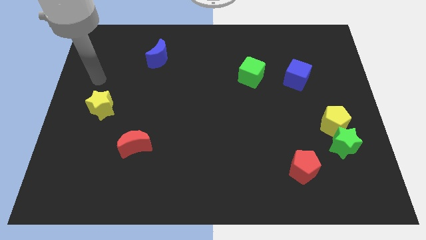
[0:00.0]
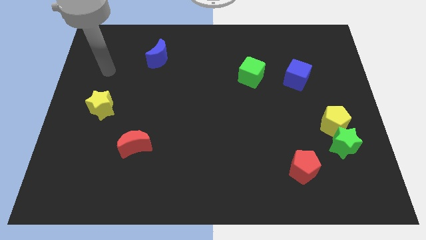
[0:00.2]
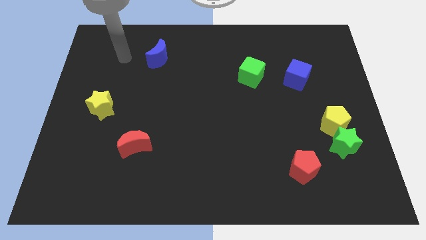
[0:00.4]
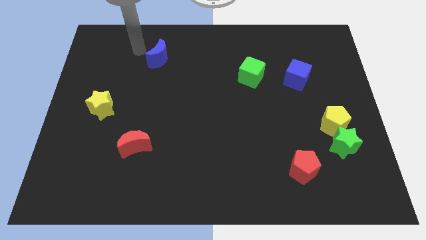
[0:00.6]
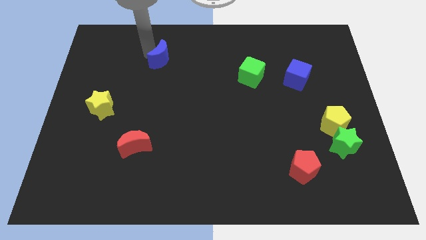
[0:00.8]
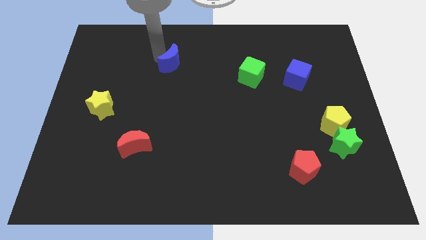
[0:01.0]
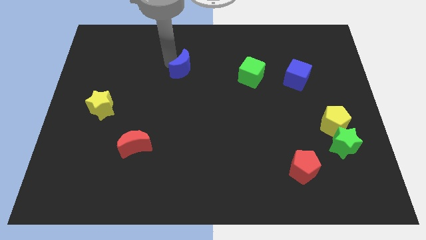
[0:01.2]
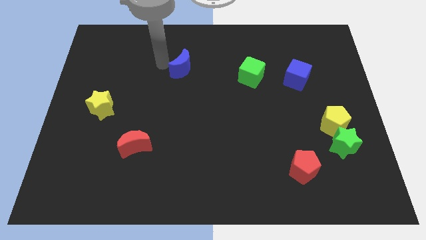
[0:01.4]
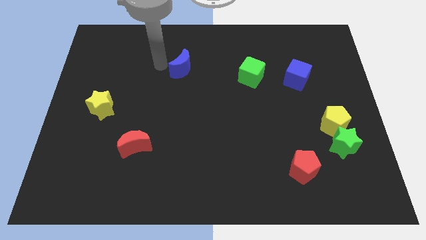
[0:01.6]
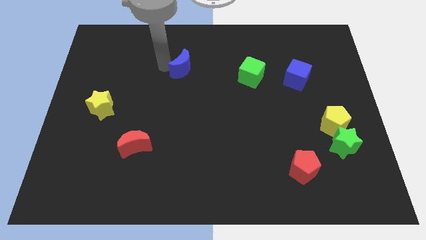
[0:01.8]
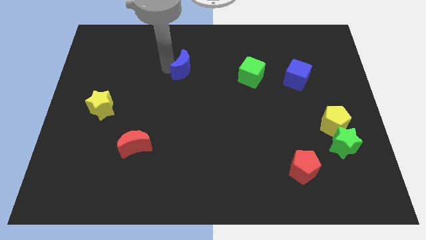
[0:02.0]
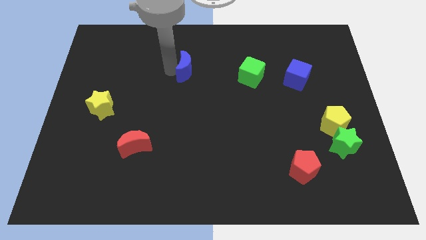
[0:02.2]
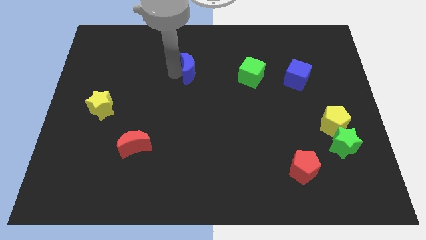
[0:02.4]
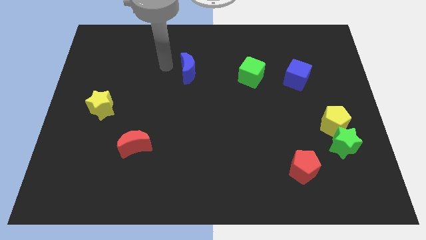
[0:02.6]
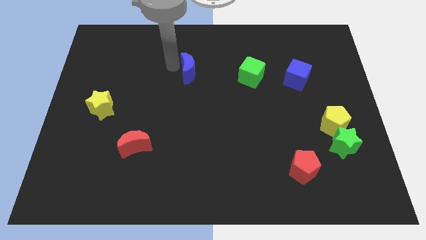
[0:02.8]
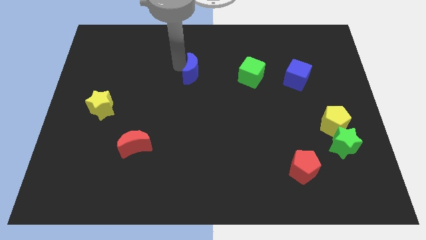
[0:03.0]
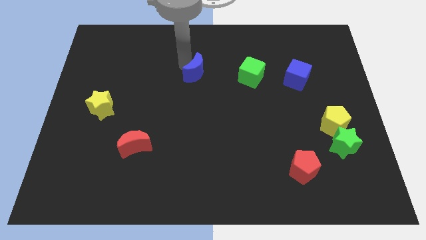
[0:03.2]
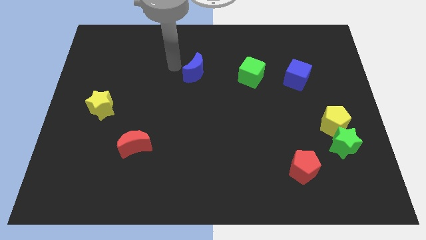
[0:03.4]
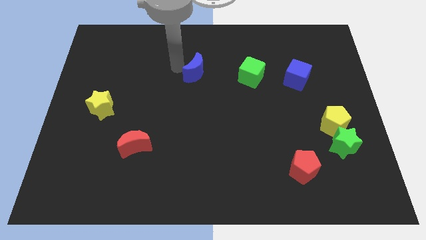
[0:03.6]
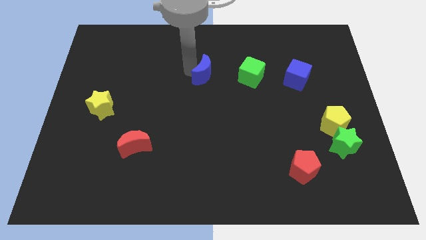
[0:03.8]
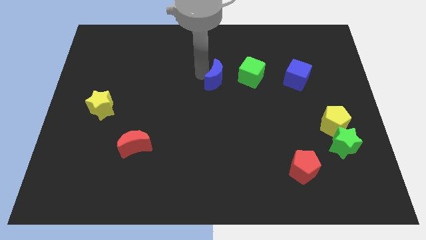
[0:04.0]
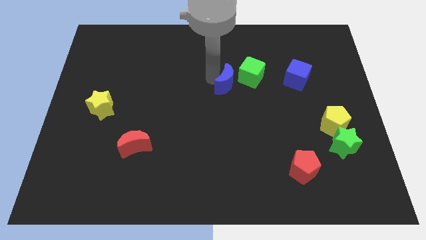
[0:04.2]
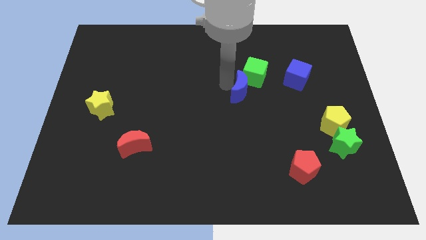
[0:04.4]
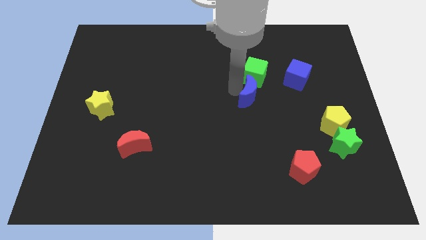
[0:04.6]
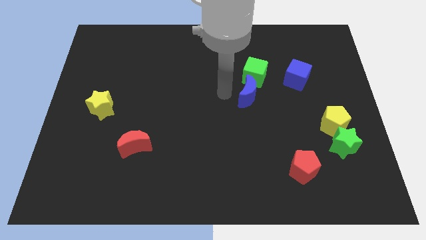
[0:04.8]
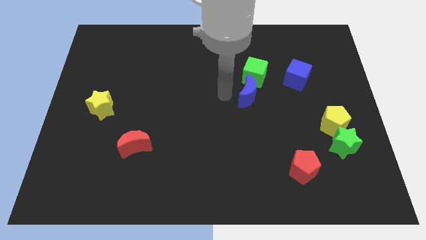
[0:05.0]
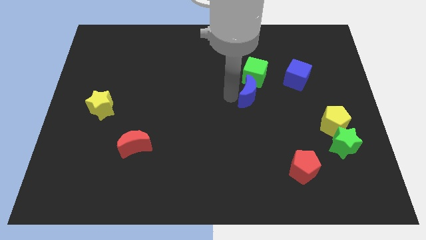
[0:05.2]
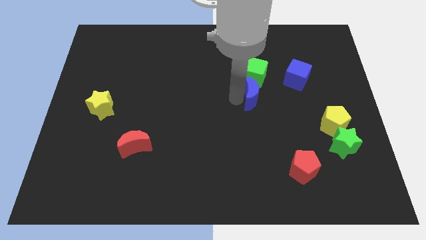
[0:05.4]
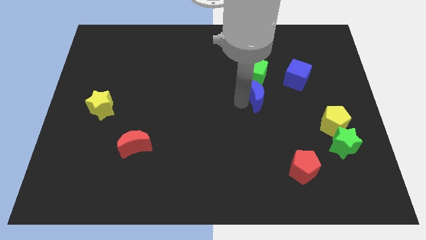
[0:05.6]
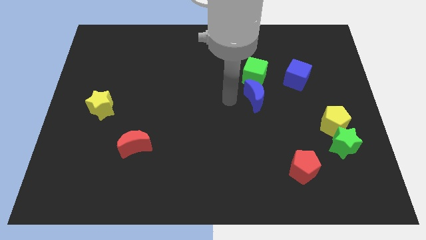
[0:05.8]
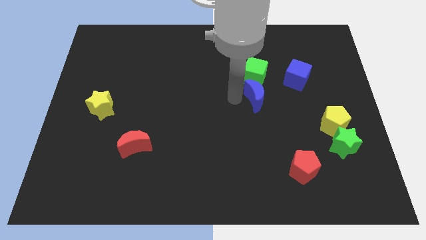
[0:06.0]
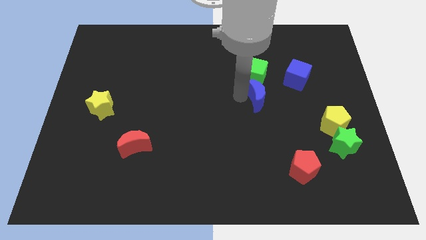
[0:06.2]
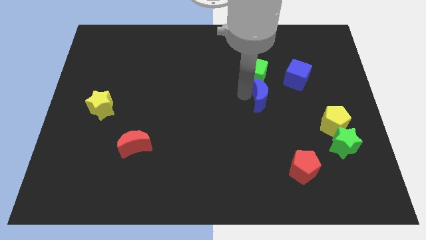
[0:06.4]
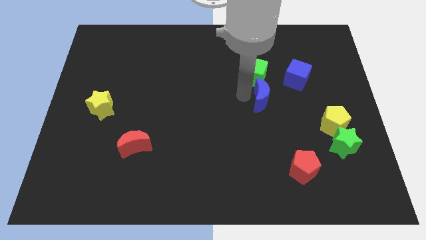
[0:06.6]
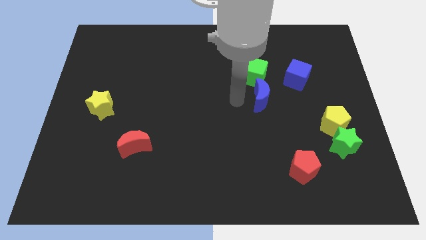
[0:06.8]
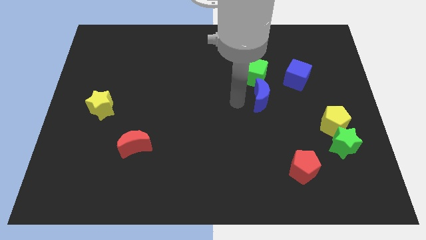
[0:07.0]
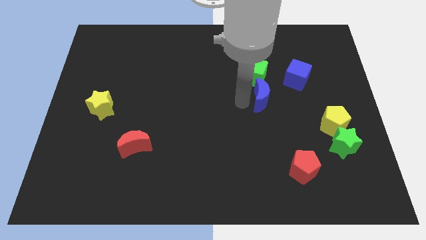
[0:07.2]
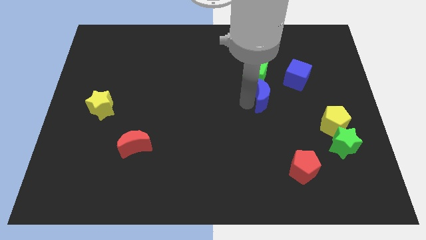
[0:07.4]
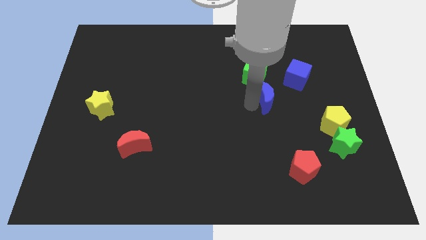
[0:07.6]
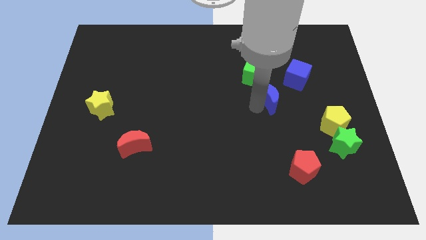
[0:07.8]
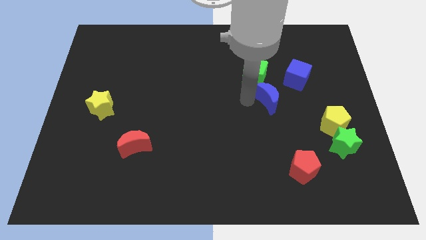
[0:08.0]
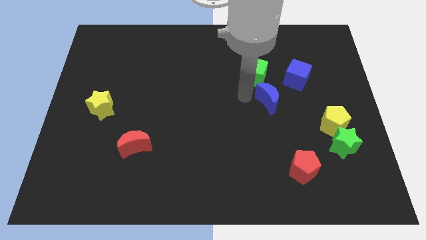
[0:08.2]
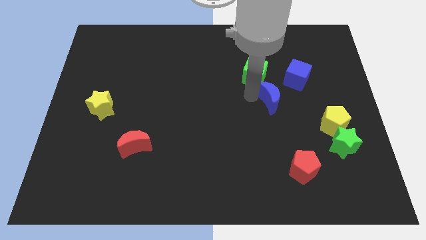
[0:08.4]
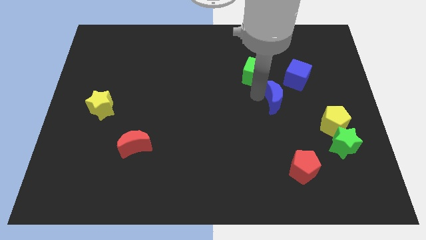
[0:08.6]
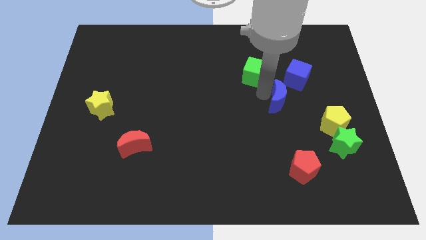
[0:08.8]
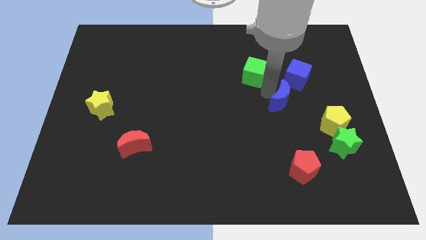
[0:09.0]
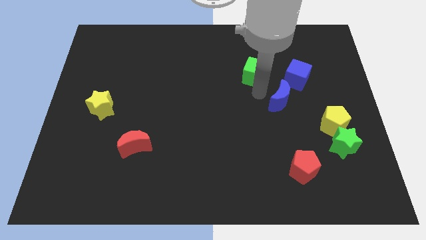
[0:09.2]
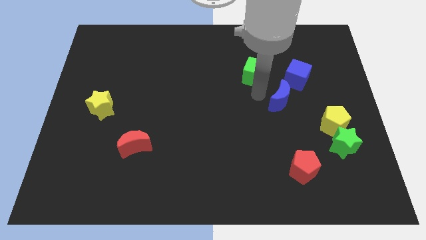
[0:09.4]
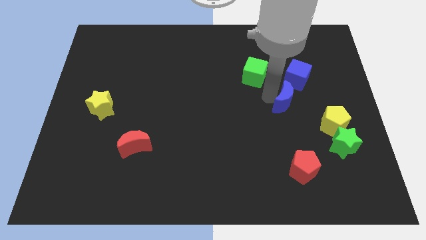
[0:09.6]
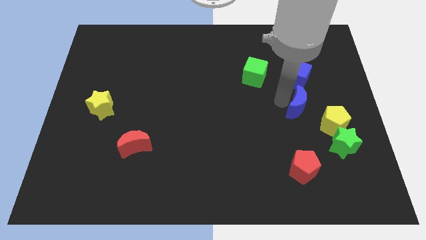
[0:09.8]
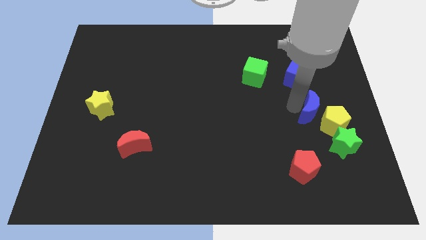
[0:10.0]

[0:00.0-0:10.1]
push the blue moon next to the yellow pentagon

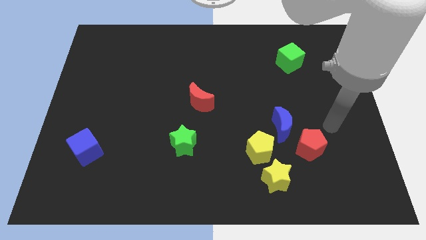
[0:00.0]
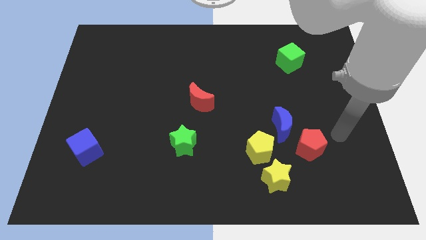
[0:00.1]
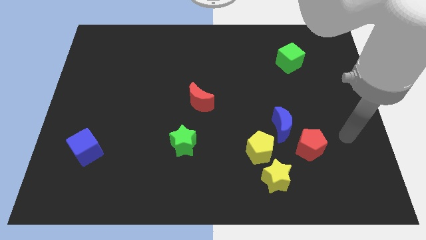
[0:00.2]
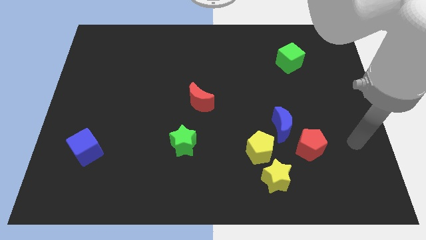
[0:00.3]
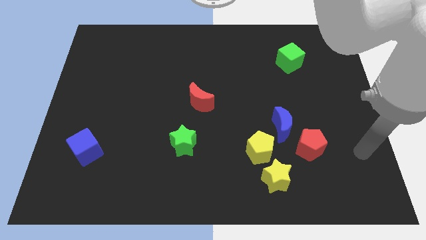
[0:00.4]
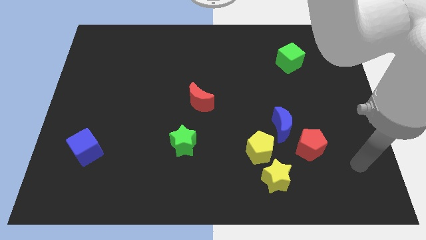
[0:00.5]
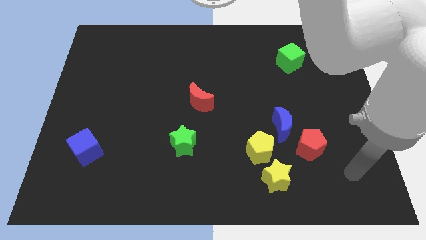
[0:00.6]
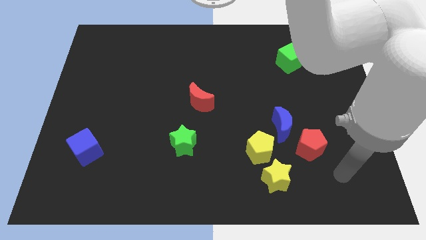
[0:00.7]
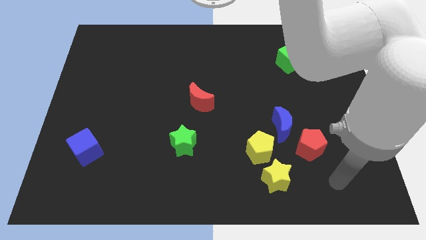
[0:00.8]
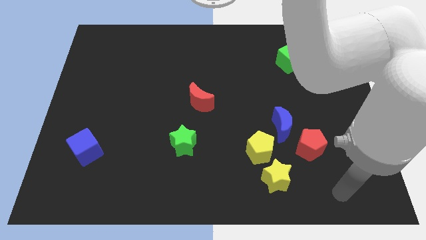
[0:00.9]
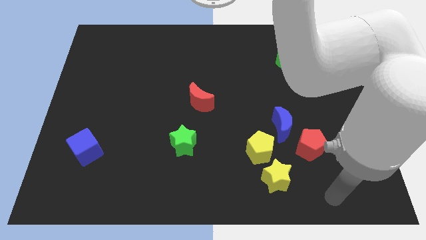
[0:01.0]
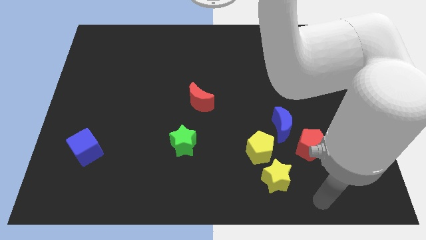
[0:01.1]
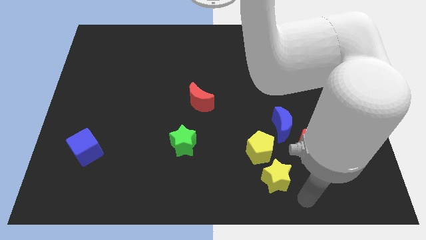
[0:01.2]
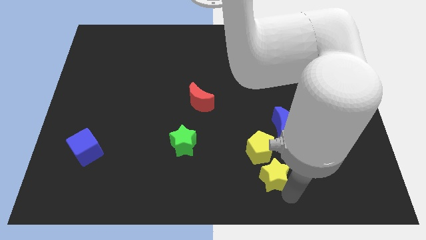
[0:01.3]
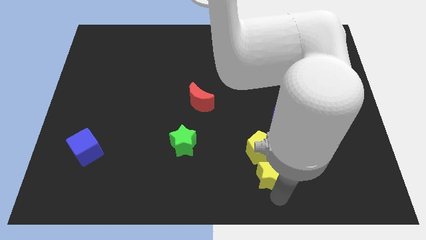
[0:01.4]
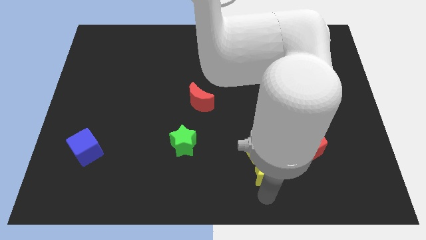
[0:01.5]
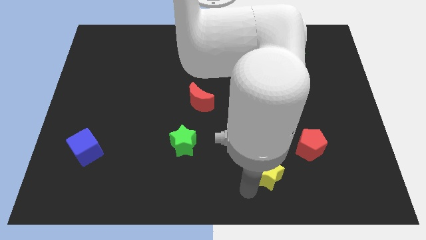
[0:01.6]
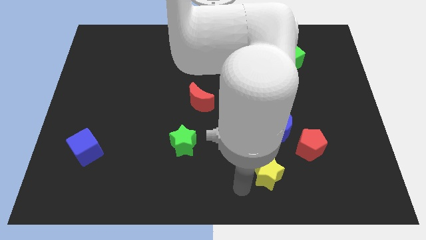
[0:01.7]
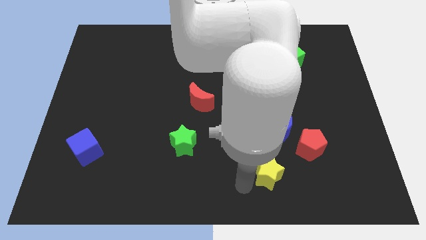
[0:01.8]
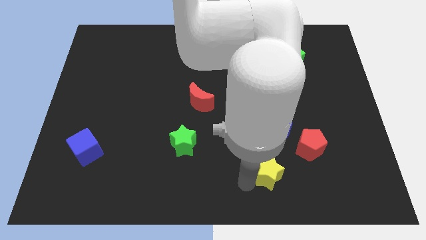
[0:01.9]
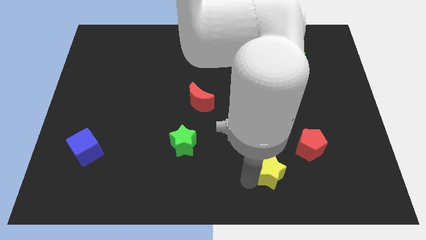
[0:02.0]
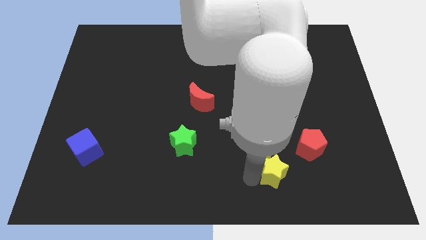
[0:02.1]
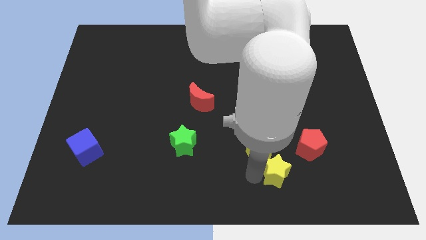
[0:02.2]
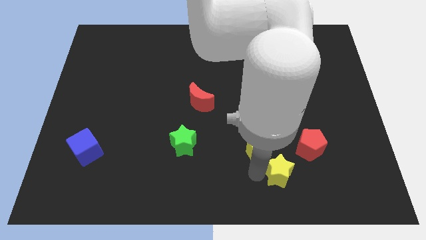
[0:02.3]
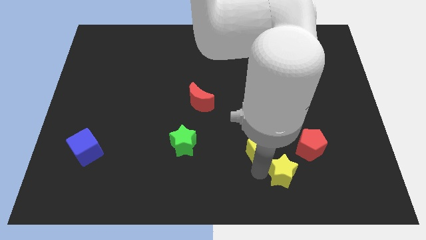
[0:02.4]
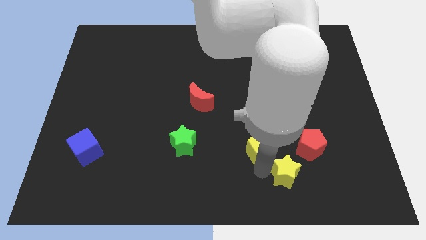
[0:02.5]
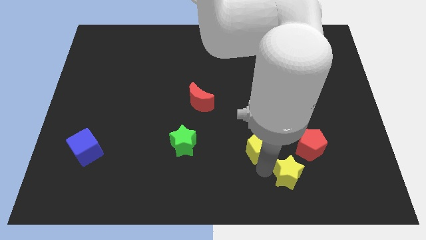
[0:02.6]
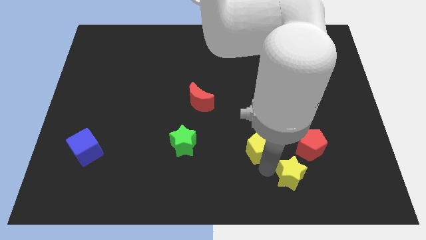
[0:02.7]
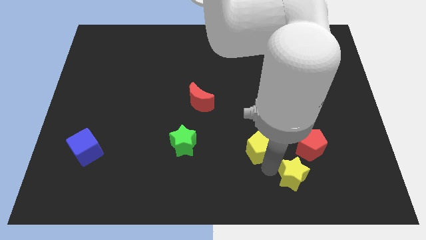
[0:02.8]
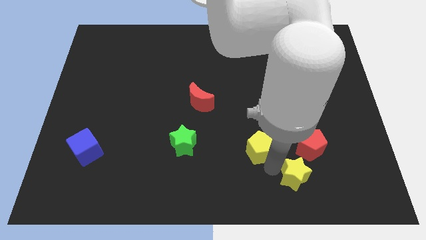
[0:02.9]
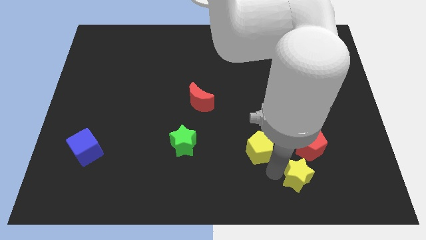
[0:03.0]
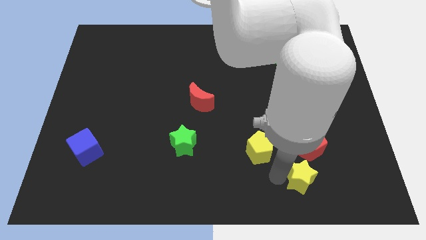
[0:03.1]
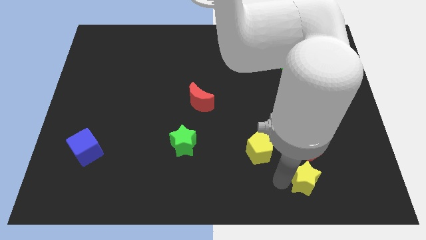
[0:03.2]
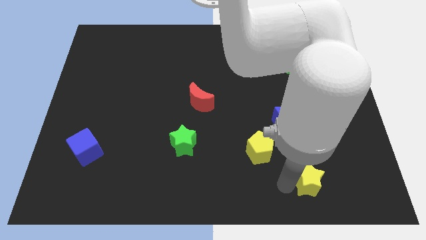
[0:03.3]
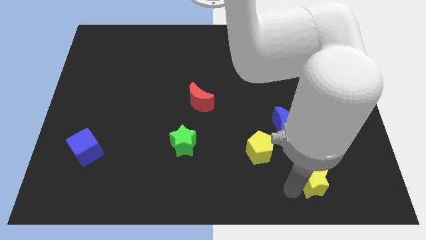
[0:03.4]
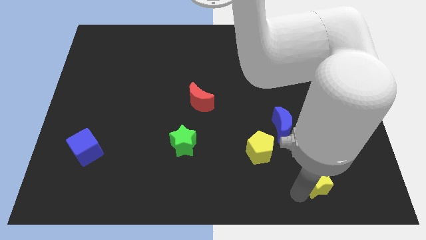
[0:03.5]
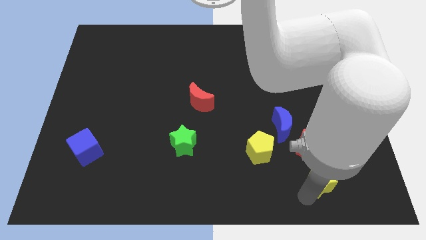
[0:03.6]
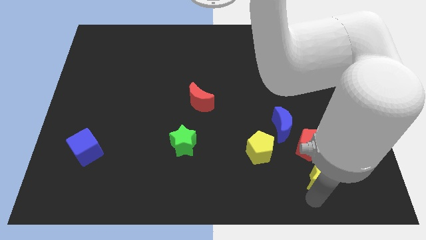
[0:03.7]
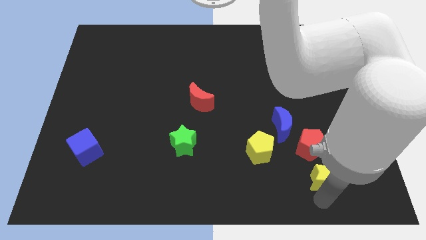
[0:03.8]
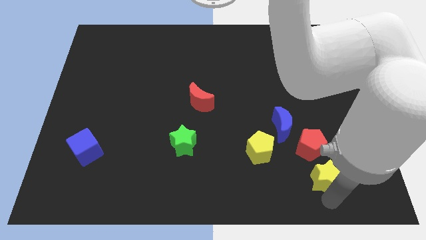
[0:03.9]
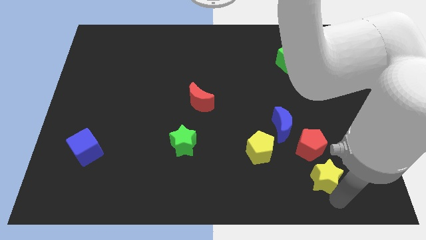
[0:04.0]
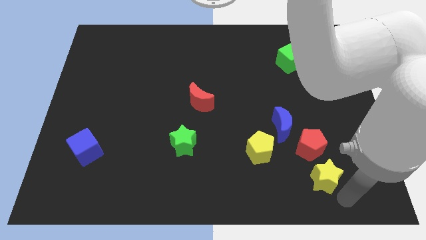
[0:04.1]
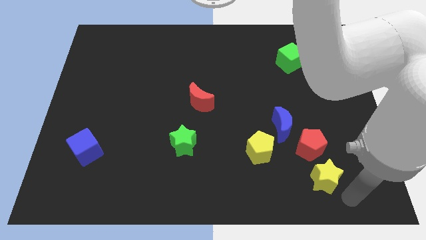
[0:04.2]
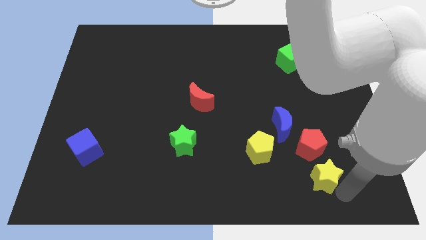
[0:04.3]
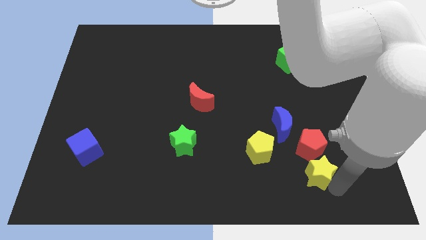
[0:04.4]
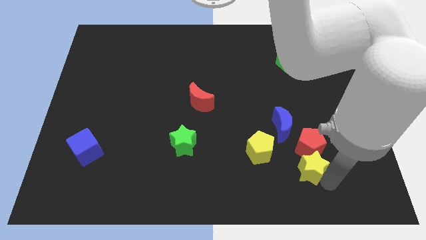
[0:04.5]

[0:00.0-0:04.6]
slide the yellow star towards the red pentagon
